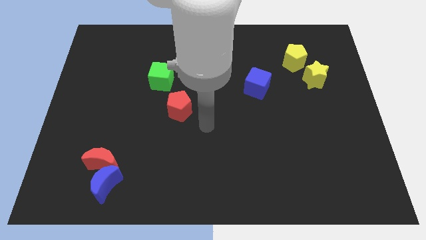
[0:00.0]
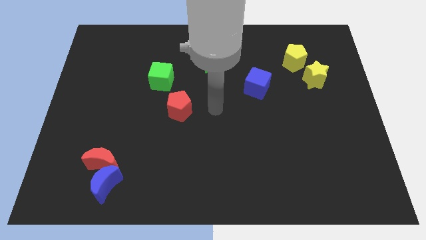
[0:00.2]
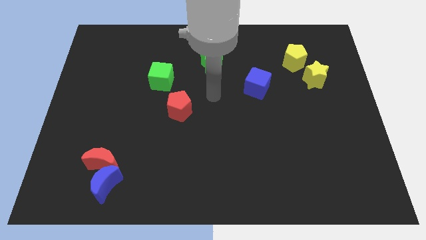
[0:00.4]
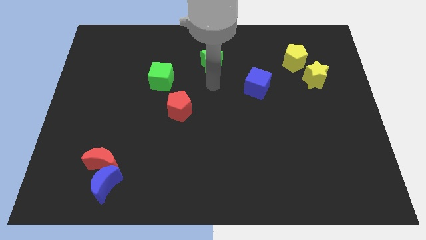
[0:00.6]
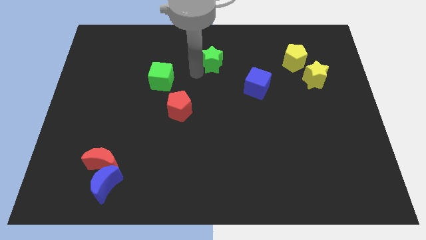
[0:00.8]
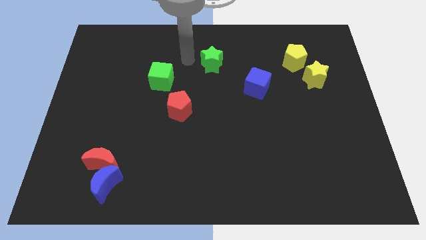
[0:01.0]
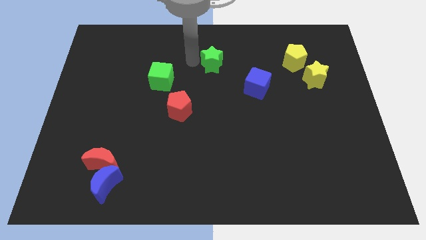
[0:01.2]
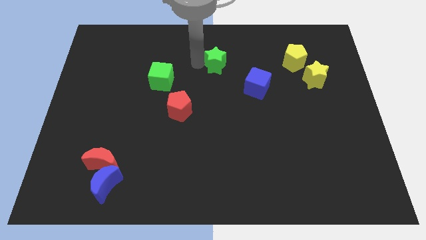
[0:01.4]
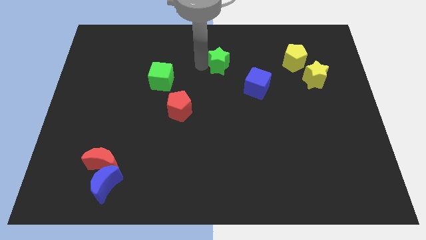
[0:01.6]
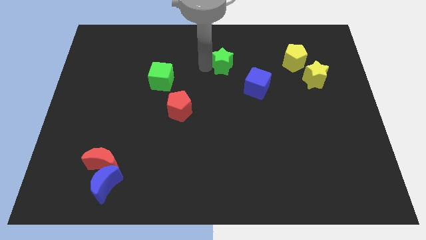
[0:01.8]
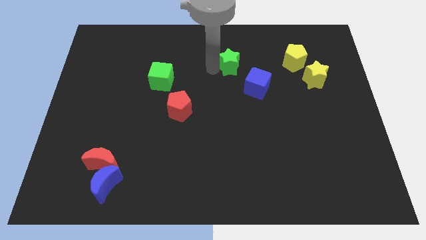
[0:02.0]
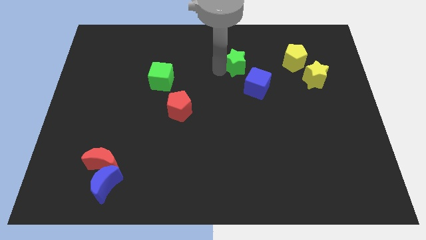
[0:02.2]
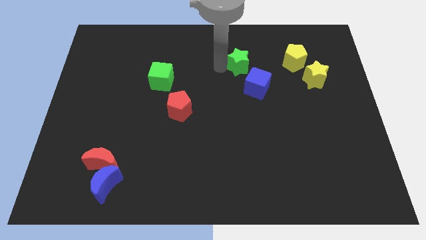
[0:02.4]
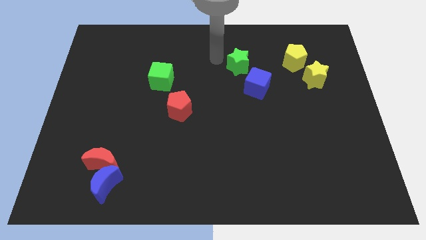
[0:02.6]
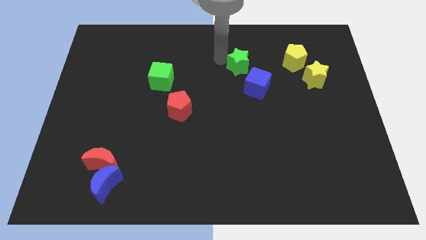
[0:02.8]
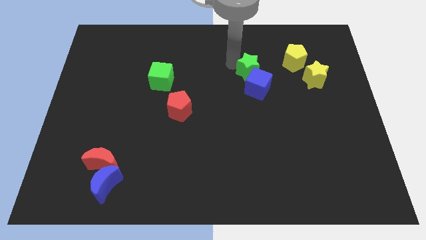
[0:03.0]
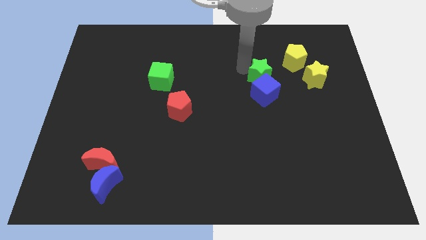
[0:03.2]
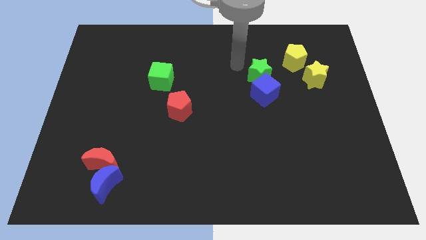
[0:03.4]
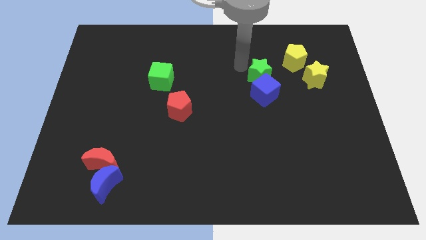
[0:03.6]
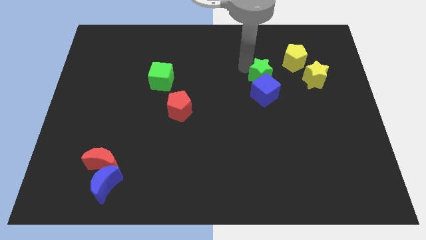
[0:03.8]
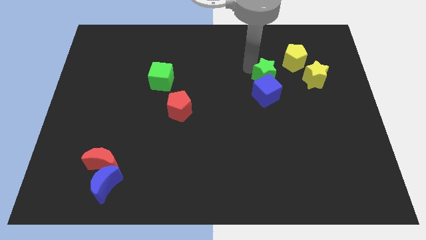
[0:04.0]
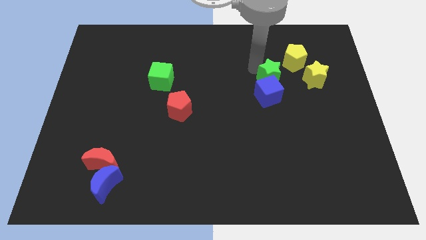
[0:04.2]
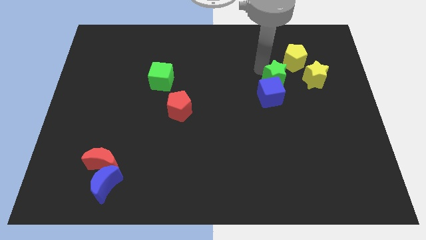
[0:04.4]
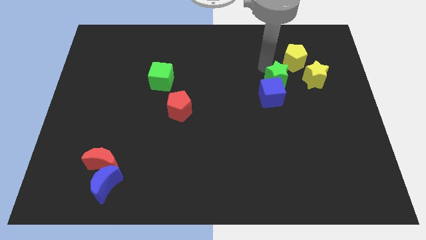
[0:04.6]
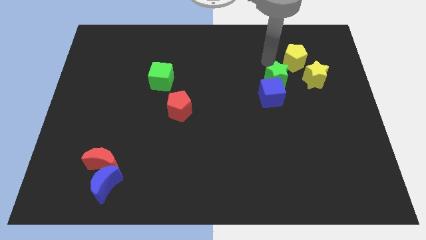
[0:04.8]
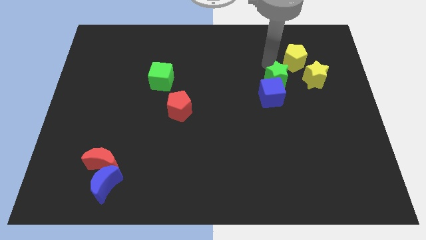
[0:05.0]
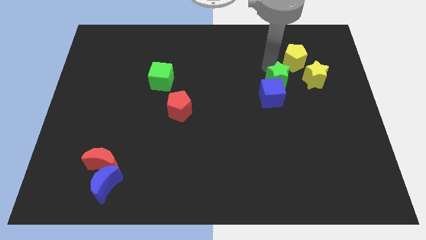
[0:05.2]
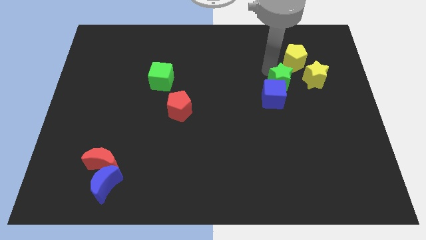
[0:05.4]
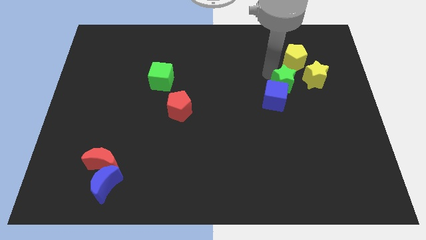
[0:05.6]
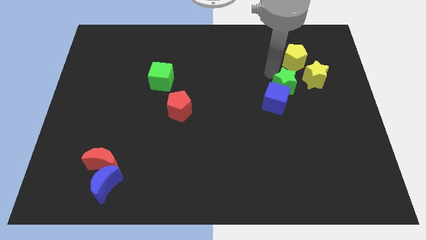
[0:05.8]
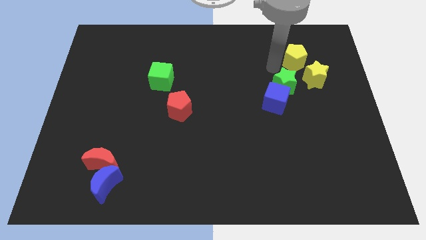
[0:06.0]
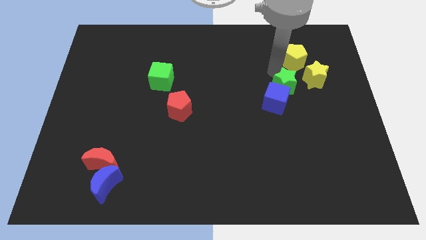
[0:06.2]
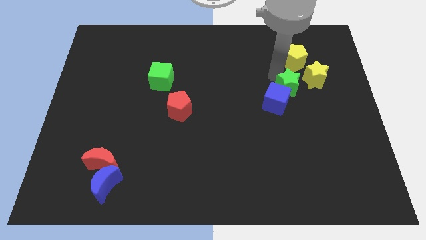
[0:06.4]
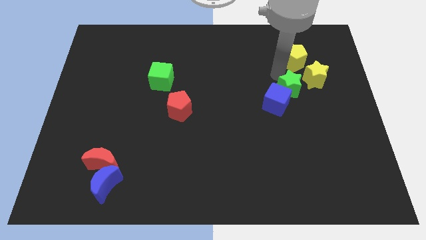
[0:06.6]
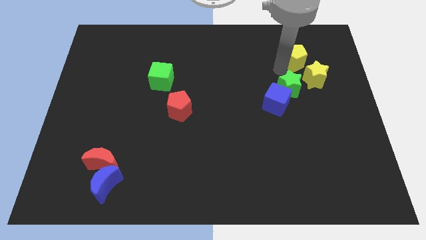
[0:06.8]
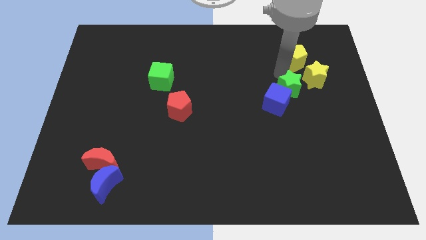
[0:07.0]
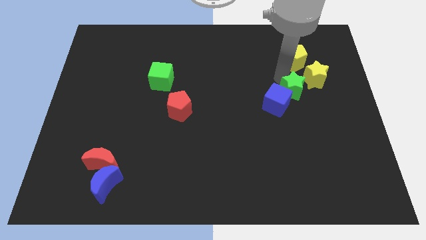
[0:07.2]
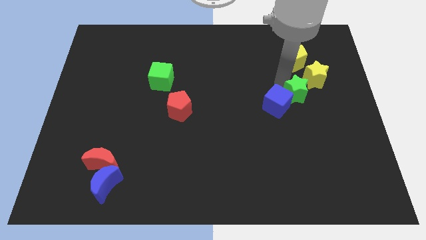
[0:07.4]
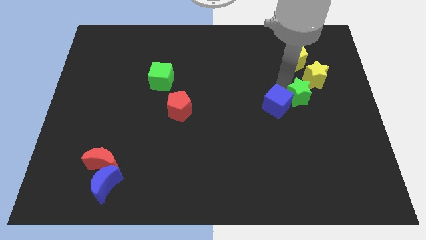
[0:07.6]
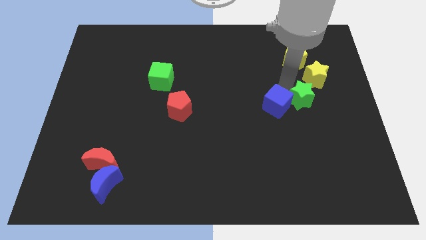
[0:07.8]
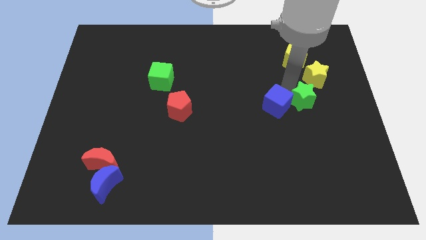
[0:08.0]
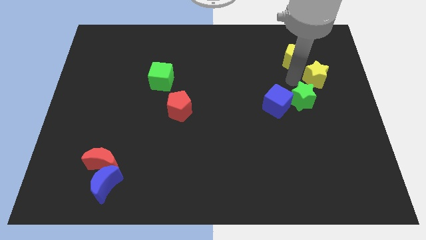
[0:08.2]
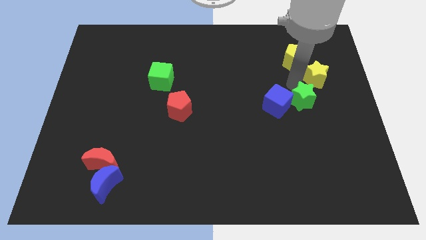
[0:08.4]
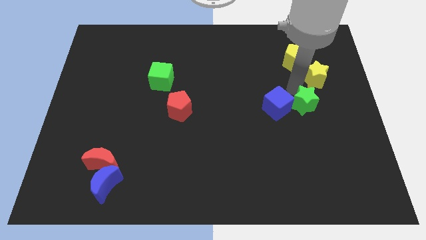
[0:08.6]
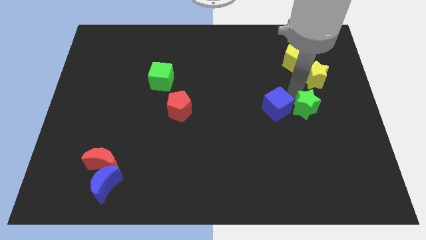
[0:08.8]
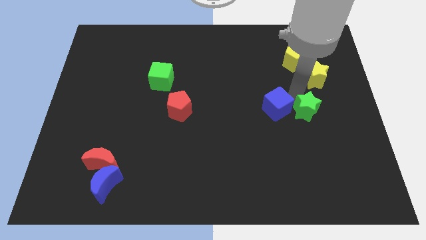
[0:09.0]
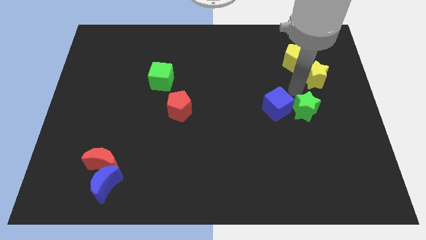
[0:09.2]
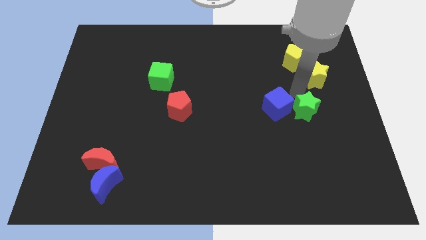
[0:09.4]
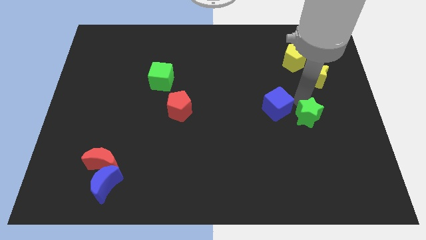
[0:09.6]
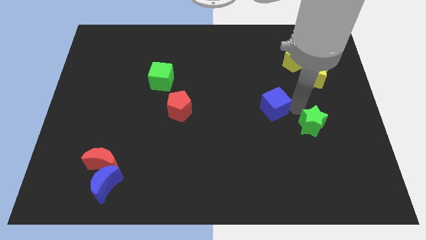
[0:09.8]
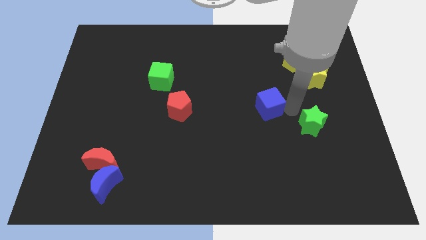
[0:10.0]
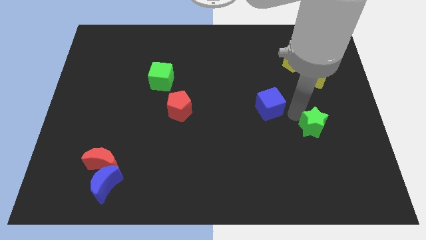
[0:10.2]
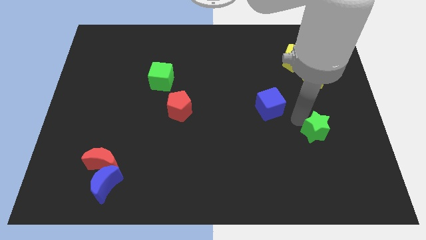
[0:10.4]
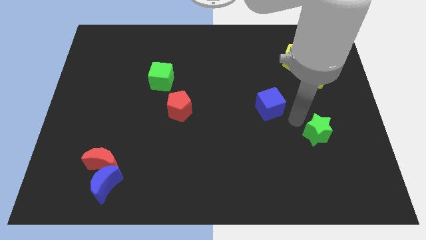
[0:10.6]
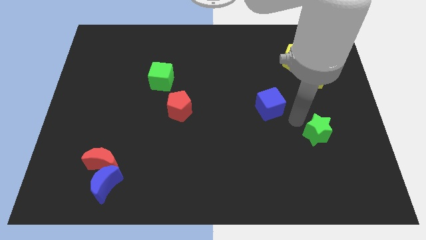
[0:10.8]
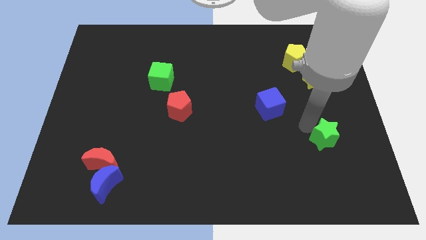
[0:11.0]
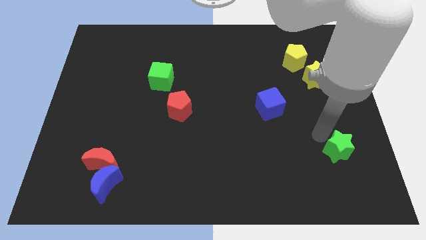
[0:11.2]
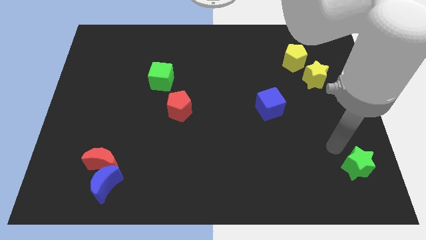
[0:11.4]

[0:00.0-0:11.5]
put the green star to the bottom right of the board

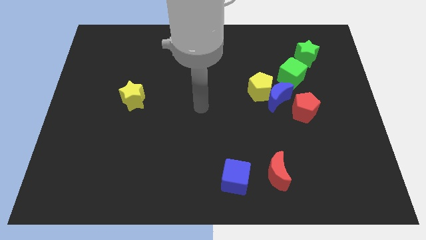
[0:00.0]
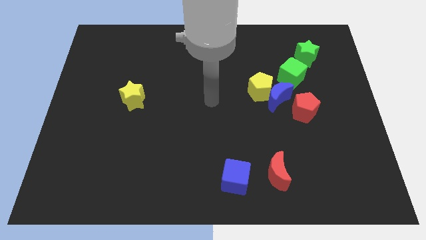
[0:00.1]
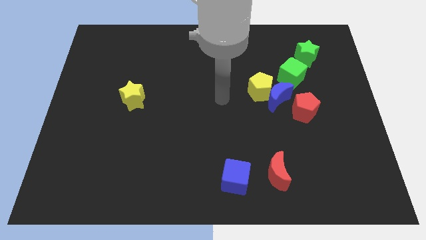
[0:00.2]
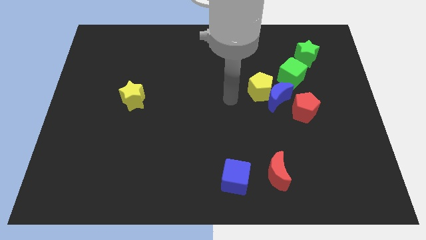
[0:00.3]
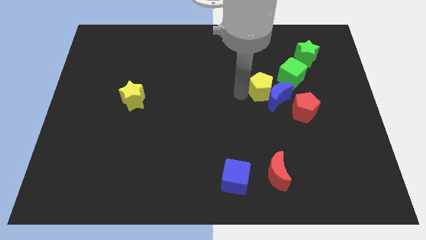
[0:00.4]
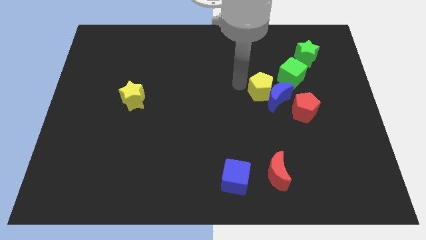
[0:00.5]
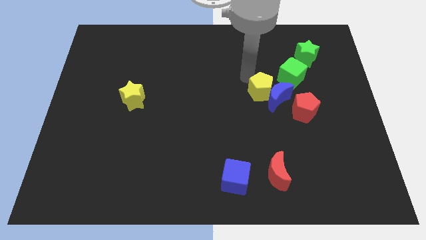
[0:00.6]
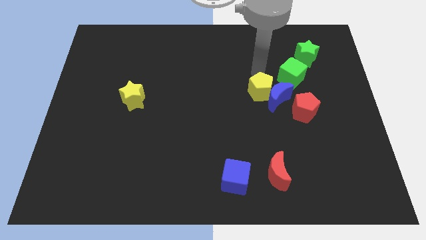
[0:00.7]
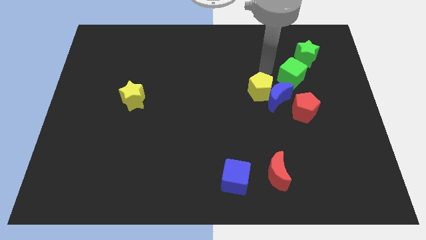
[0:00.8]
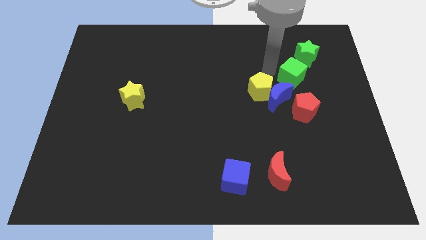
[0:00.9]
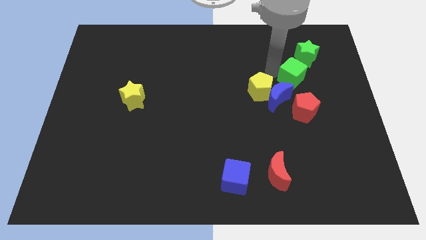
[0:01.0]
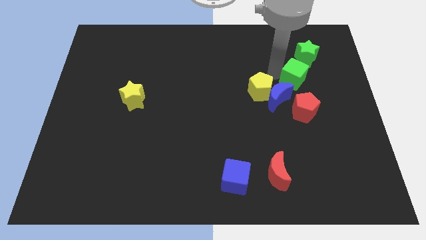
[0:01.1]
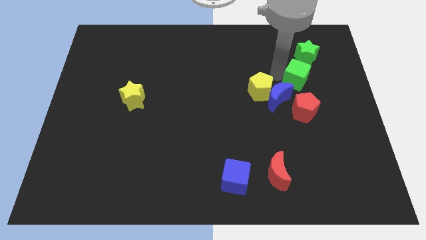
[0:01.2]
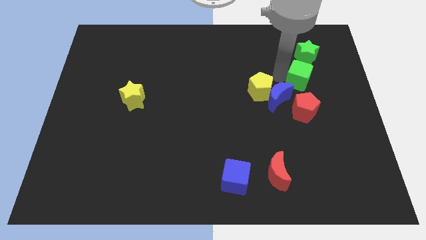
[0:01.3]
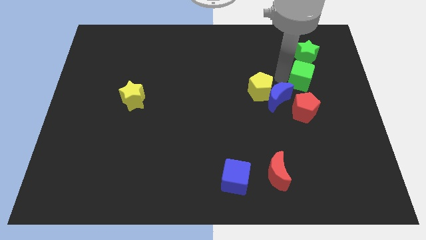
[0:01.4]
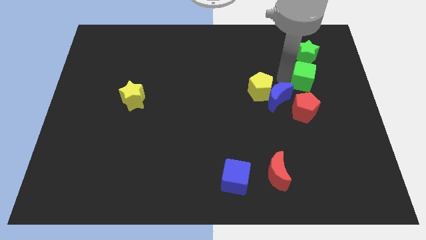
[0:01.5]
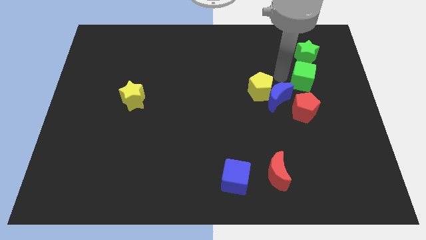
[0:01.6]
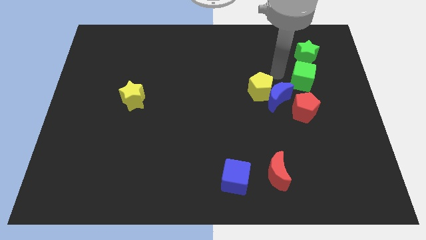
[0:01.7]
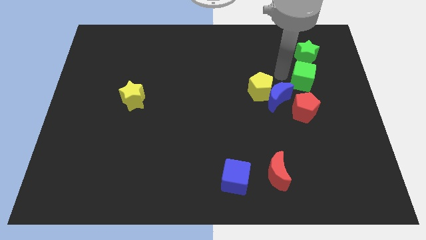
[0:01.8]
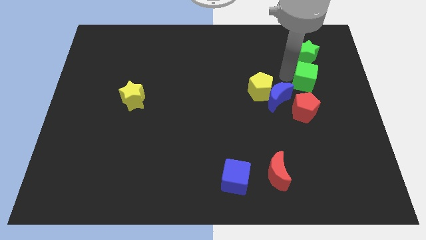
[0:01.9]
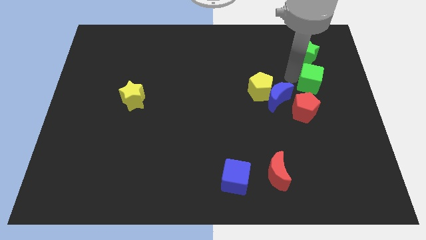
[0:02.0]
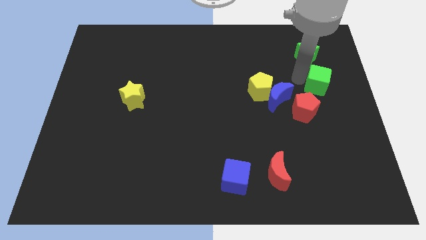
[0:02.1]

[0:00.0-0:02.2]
move the green cube to the right side of the board
